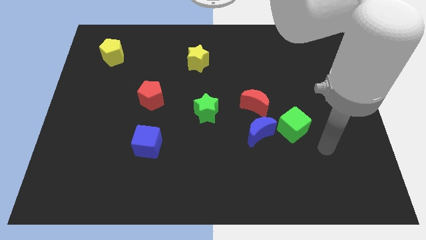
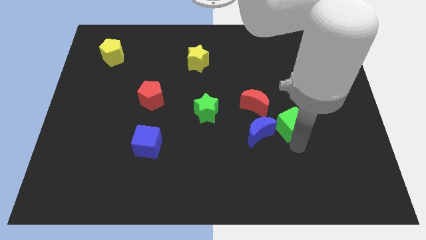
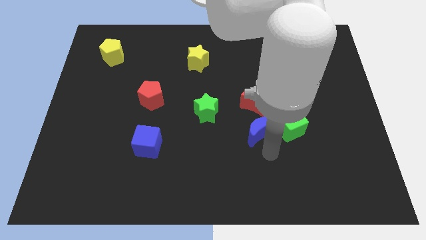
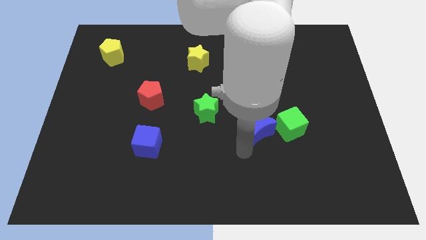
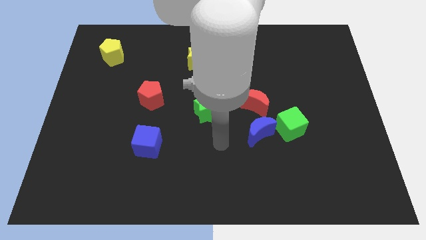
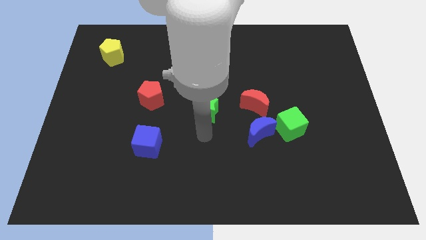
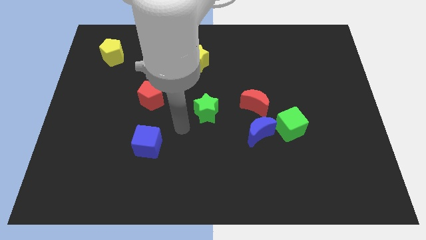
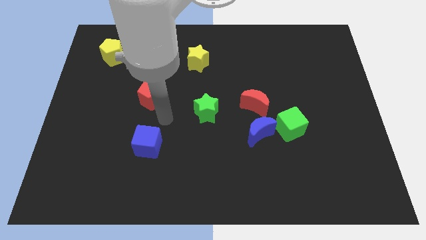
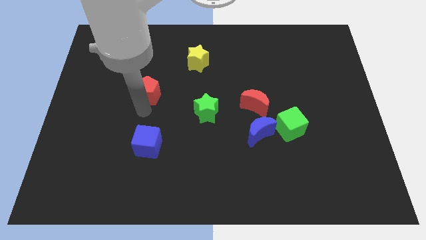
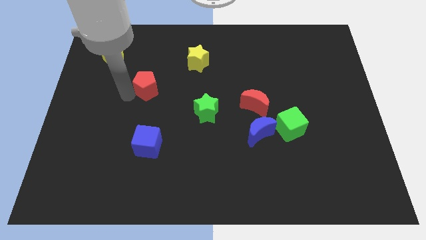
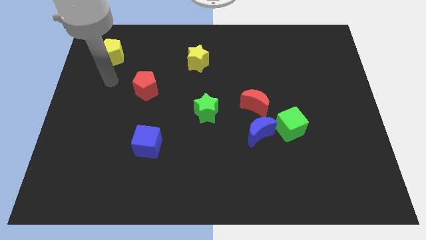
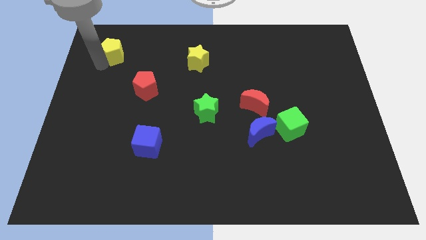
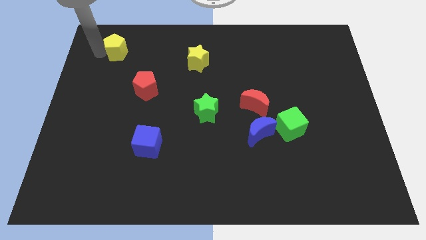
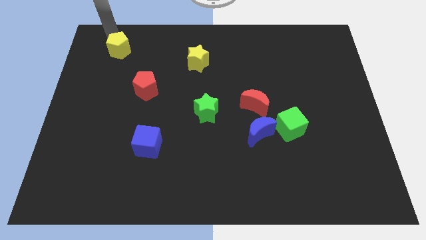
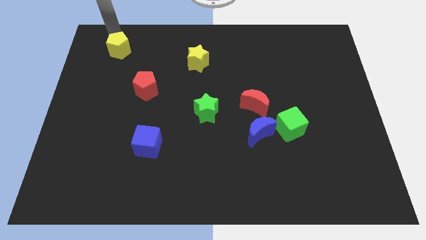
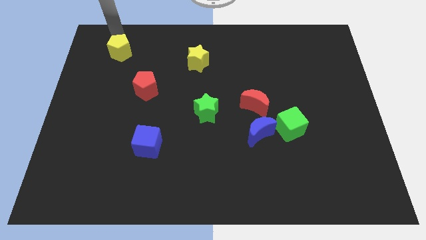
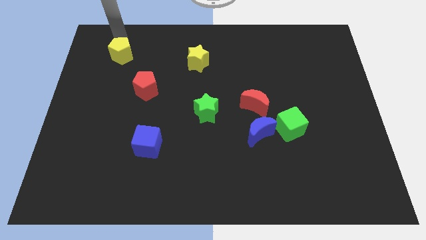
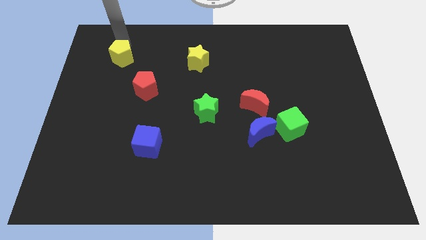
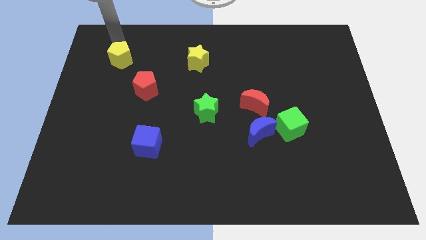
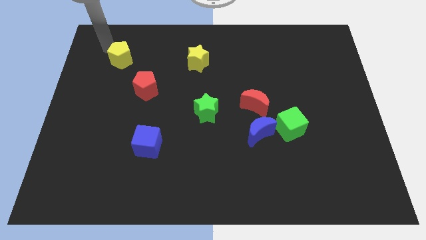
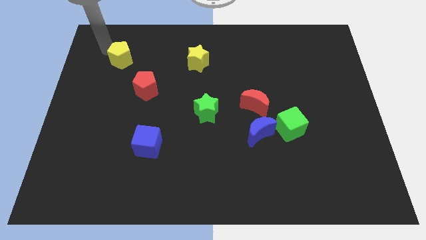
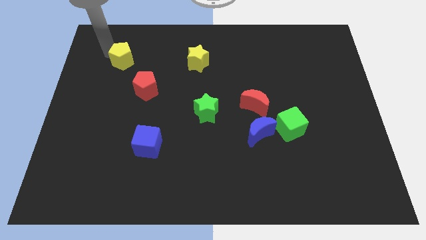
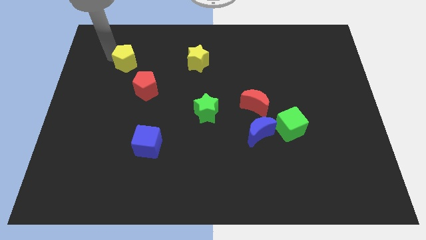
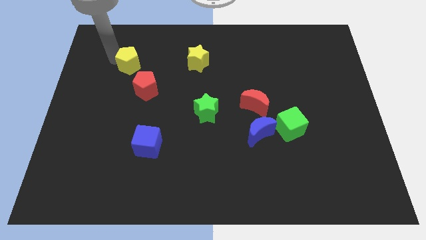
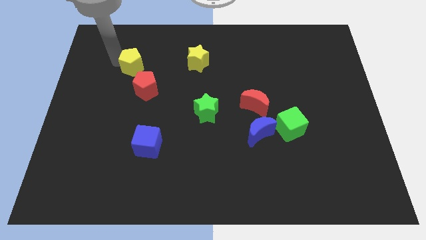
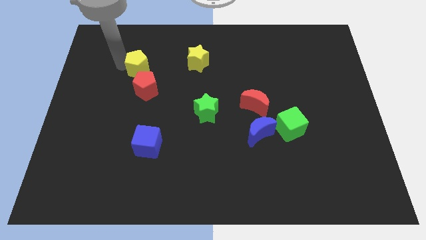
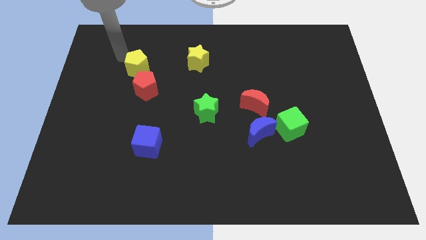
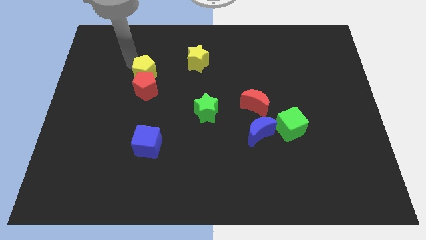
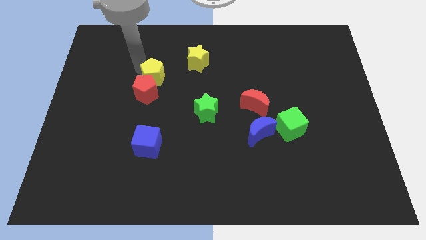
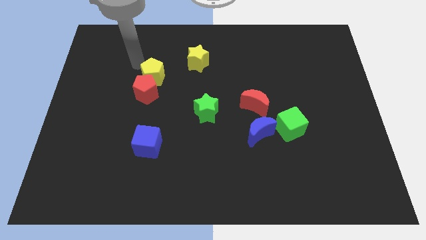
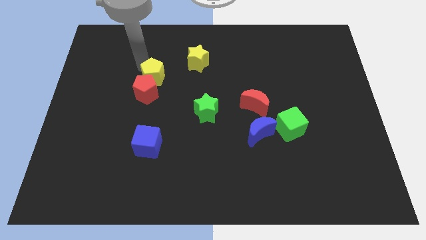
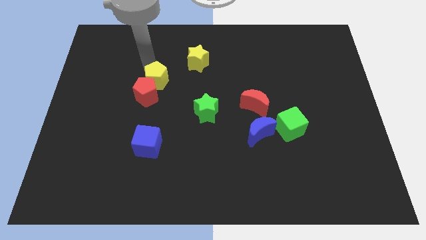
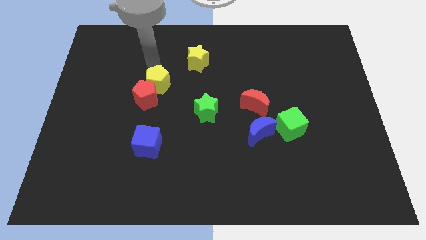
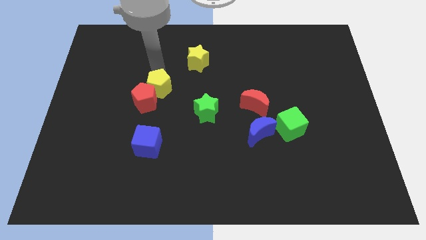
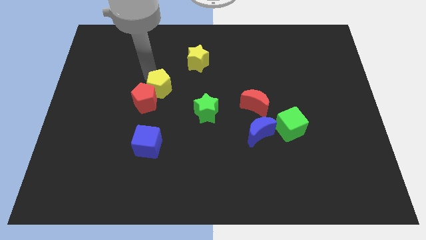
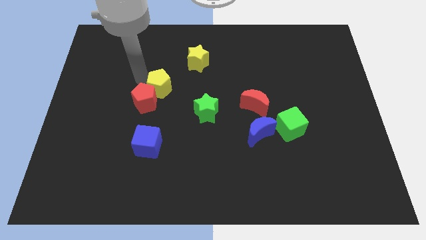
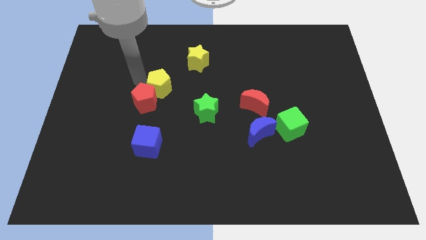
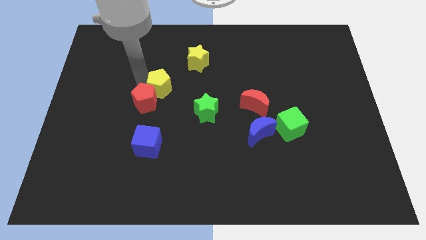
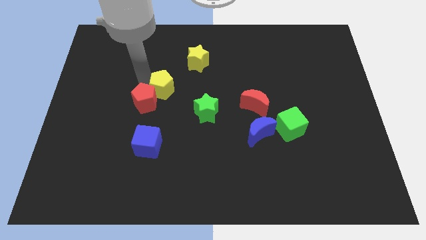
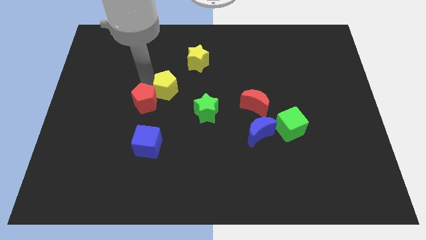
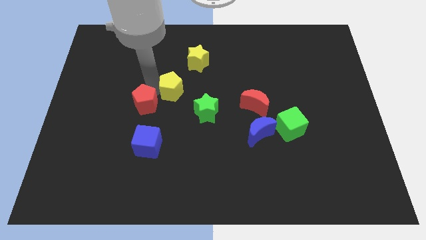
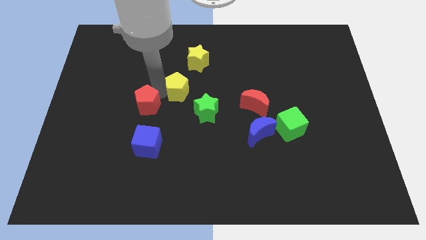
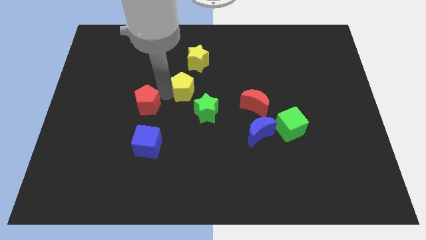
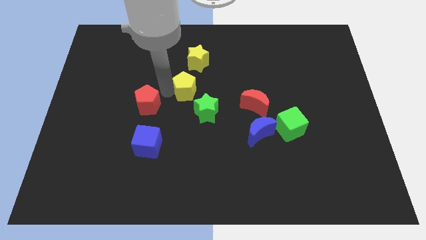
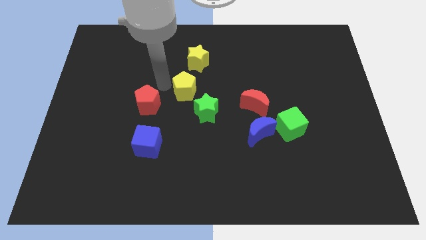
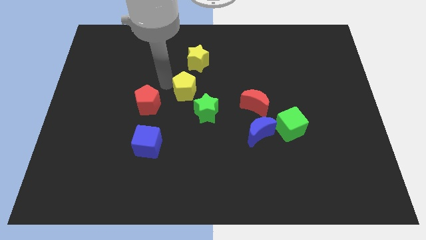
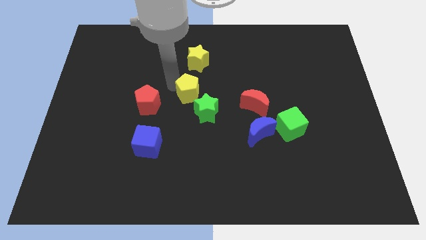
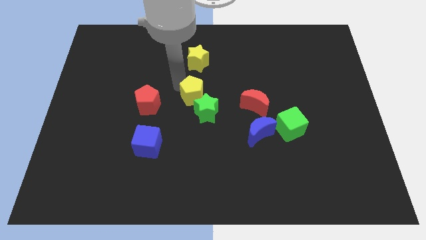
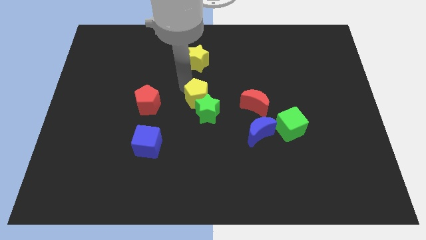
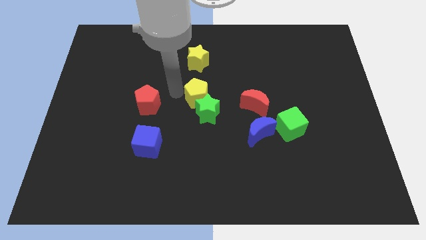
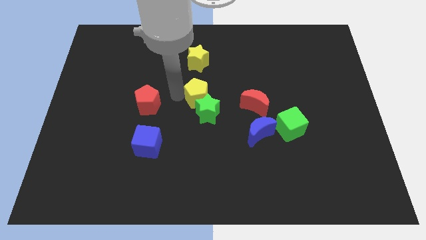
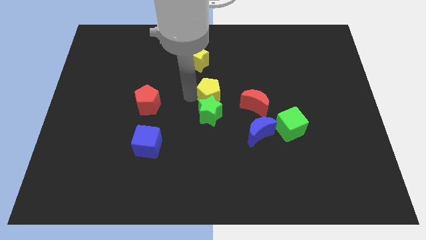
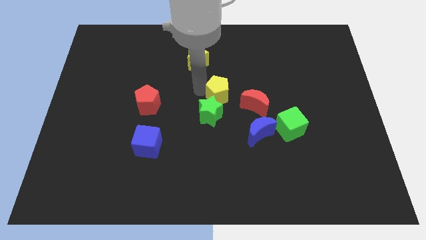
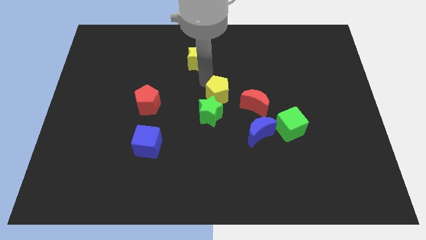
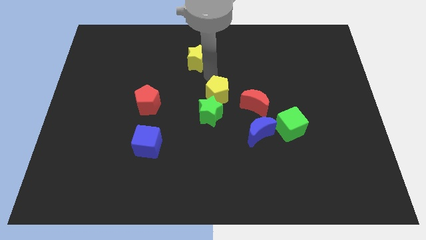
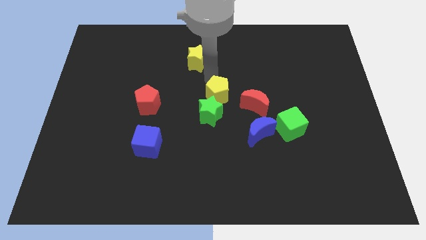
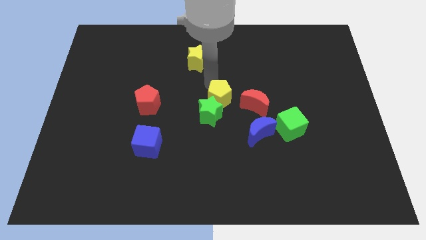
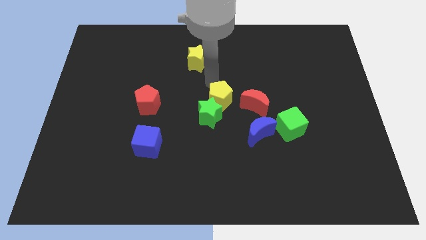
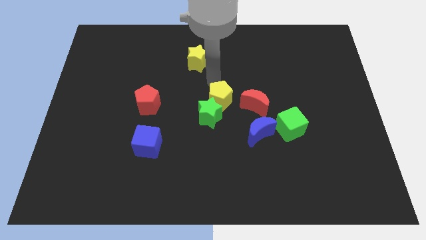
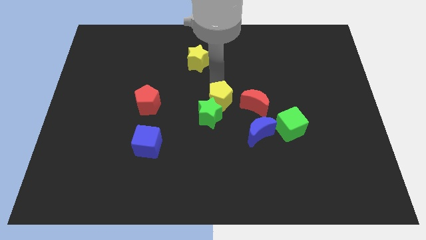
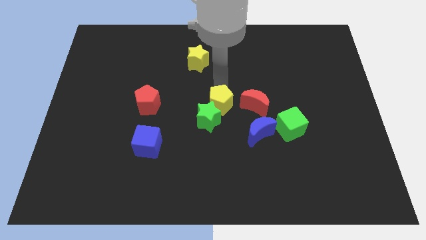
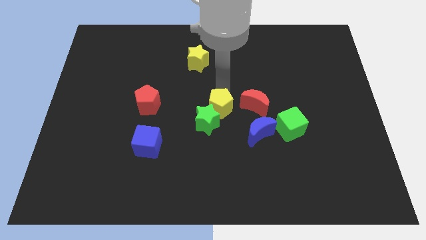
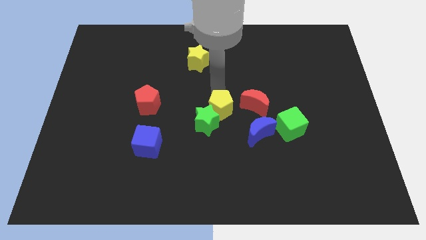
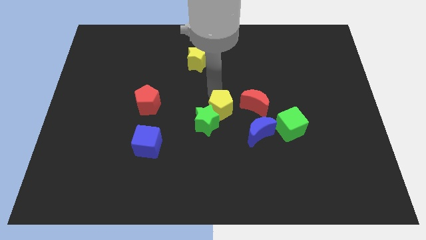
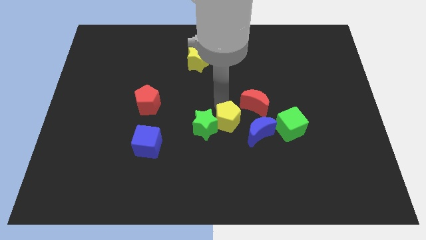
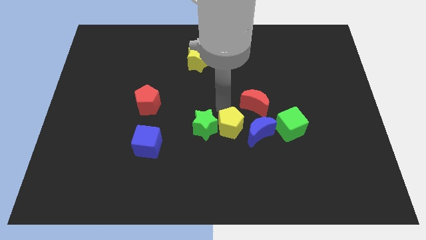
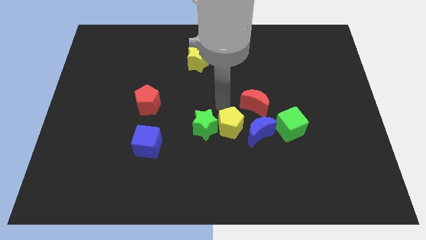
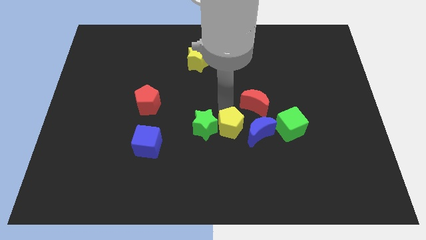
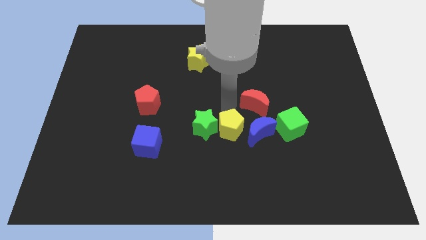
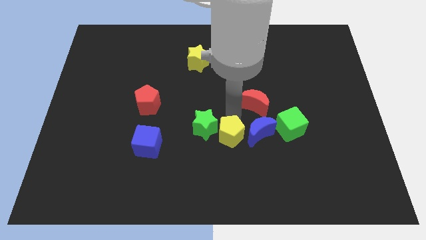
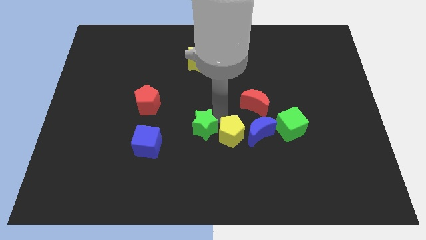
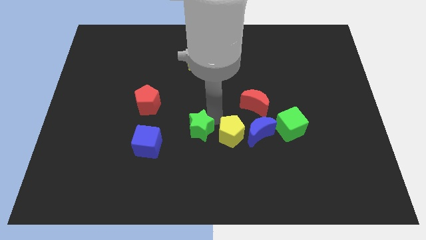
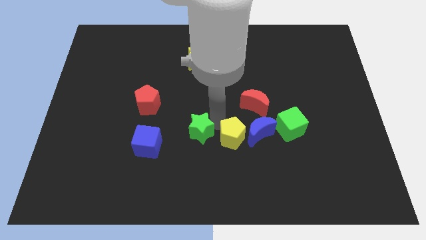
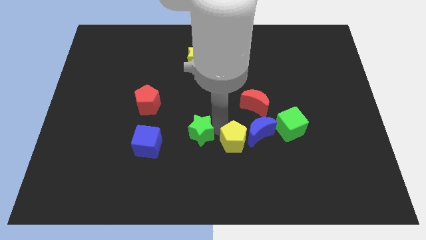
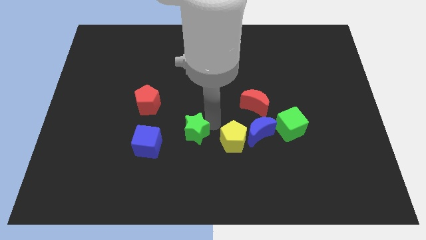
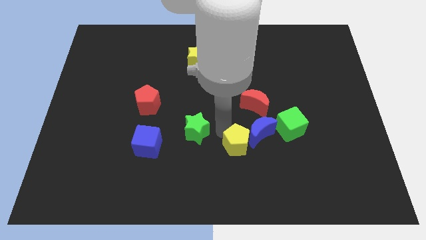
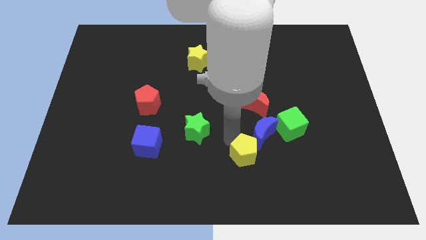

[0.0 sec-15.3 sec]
move the yellow pentagon to the bottom left of the green cube
